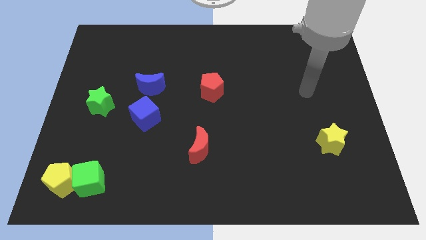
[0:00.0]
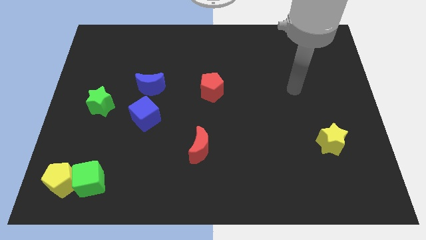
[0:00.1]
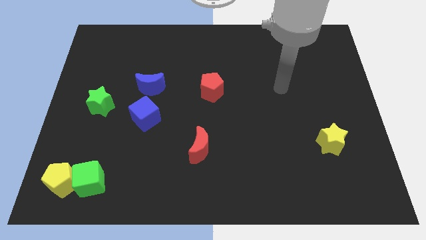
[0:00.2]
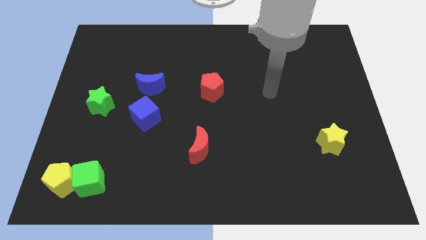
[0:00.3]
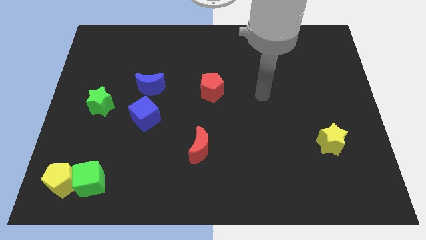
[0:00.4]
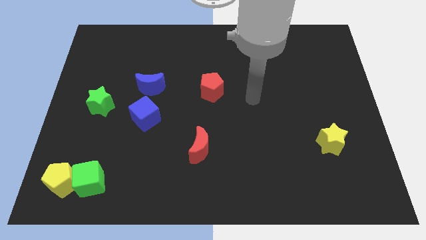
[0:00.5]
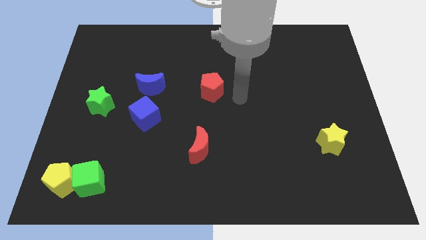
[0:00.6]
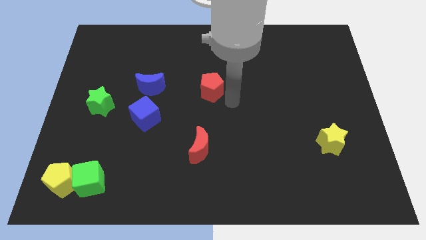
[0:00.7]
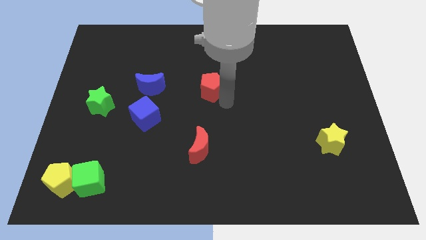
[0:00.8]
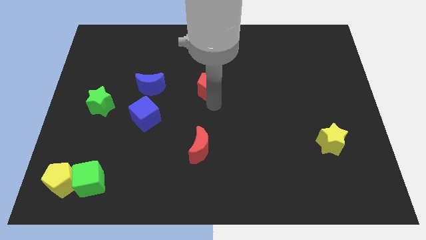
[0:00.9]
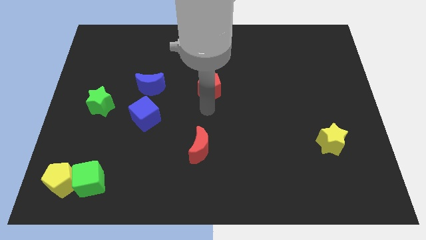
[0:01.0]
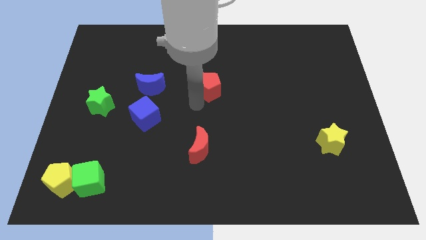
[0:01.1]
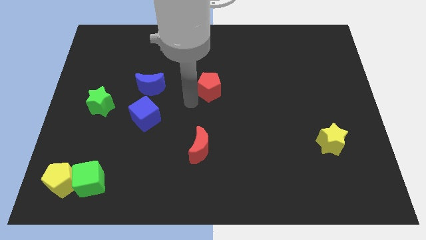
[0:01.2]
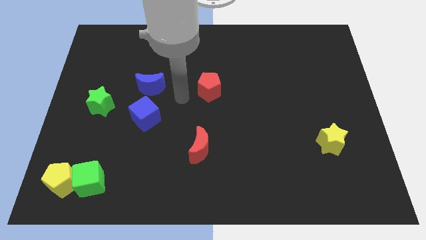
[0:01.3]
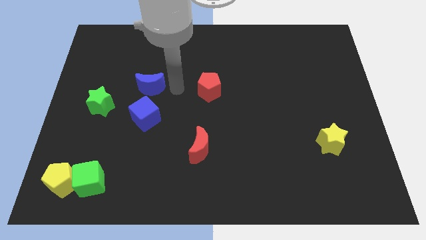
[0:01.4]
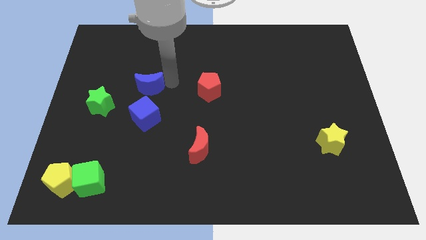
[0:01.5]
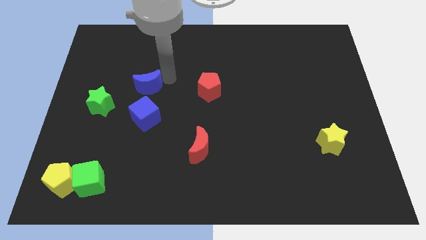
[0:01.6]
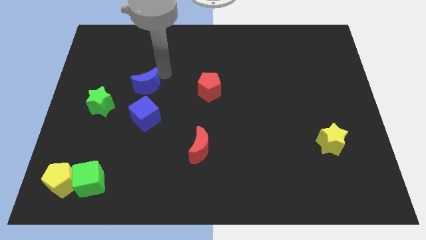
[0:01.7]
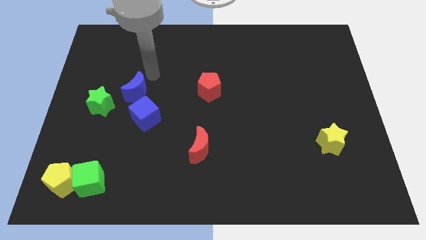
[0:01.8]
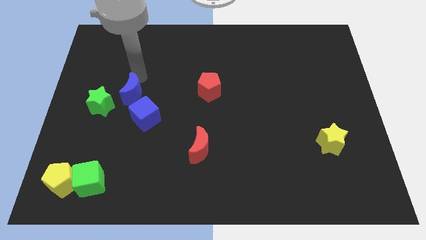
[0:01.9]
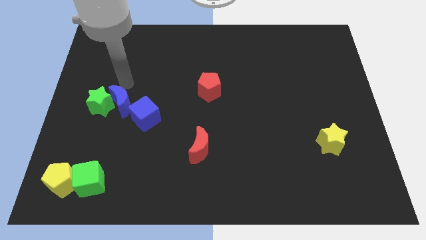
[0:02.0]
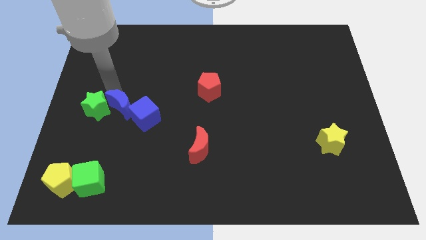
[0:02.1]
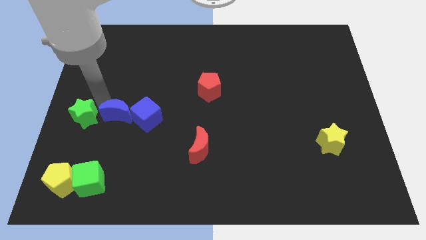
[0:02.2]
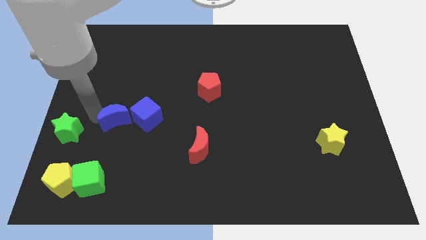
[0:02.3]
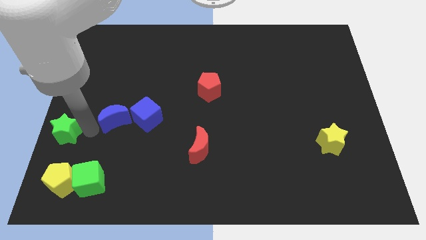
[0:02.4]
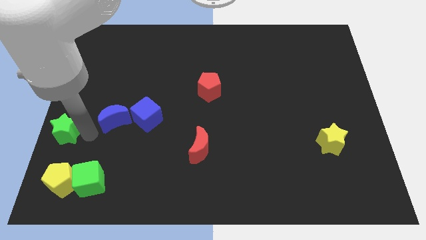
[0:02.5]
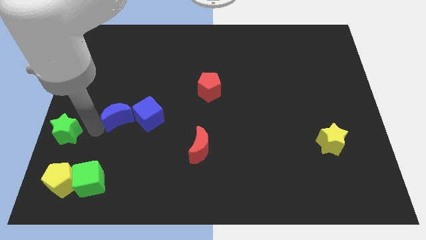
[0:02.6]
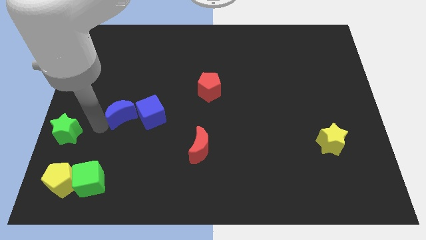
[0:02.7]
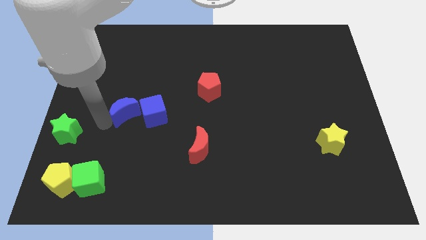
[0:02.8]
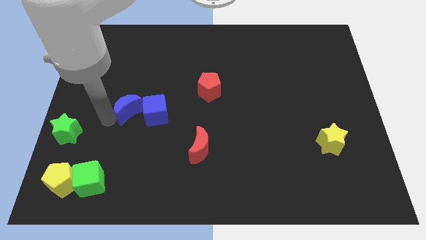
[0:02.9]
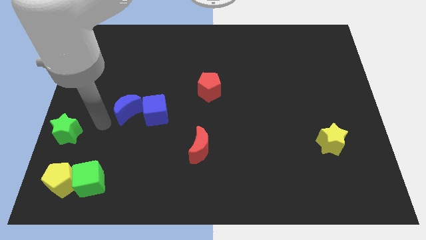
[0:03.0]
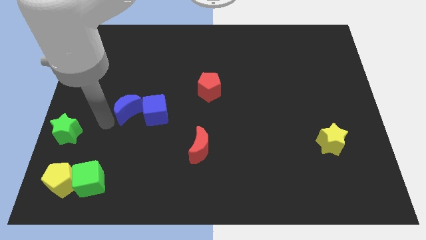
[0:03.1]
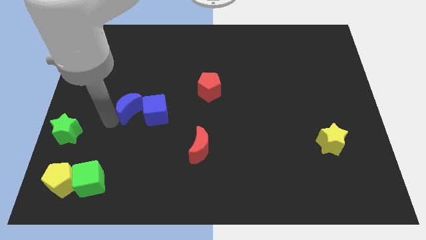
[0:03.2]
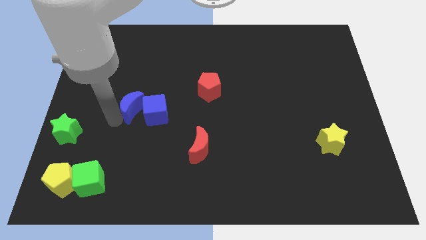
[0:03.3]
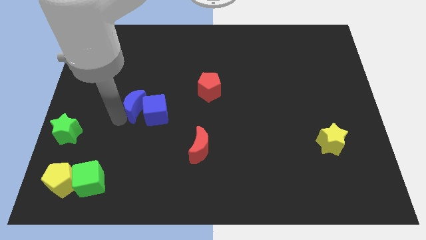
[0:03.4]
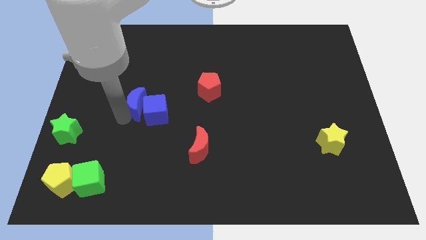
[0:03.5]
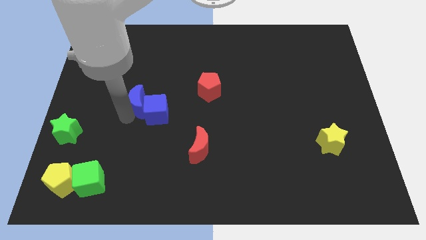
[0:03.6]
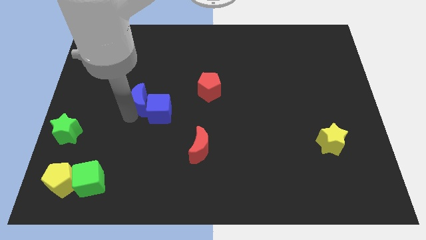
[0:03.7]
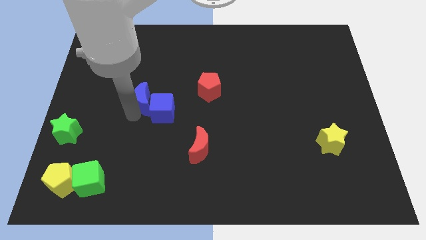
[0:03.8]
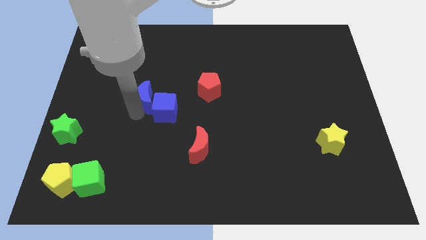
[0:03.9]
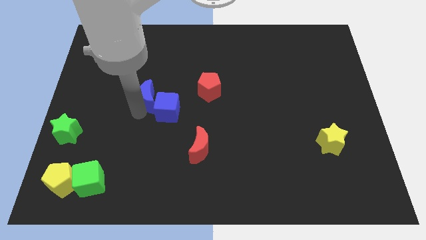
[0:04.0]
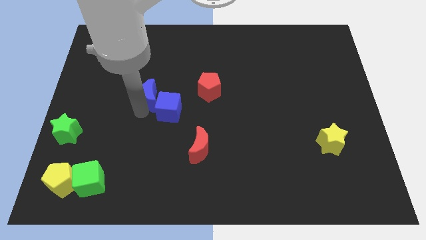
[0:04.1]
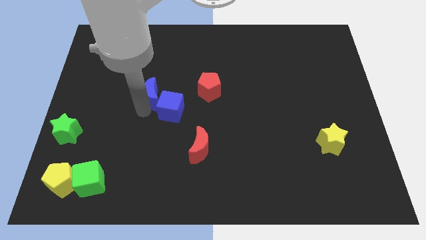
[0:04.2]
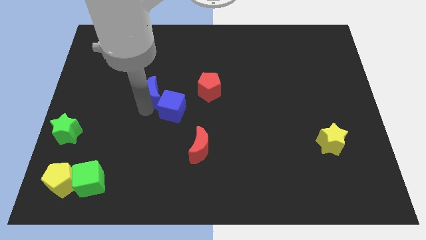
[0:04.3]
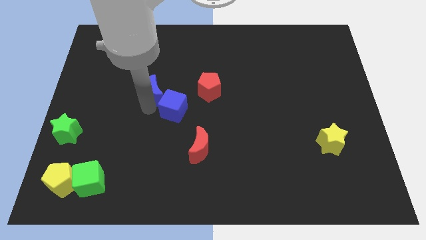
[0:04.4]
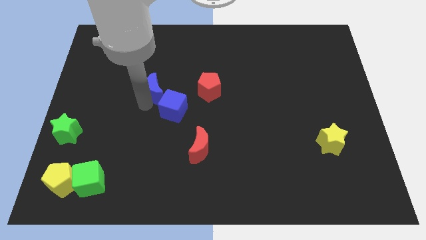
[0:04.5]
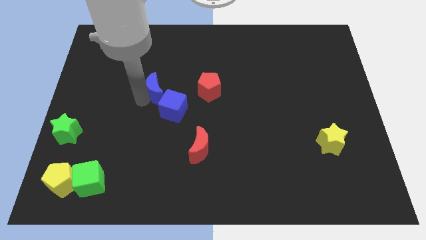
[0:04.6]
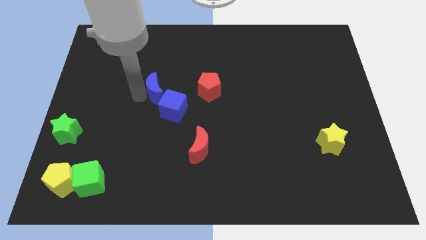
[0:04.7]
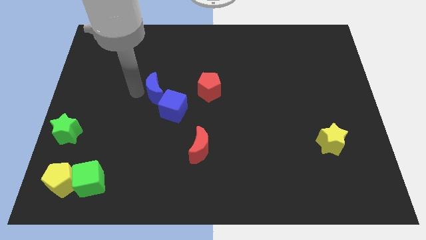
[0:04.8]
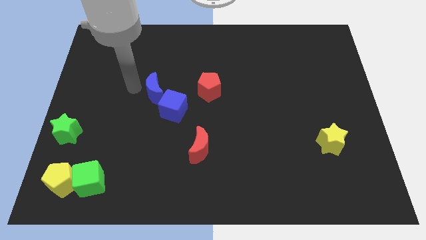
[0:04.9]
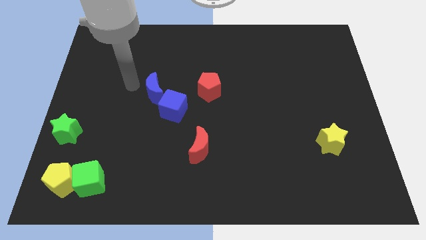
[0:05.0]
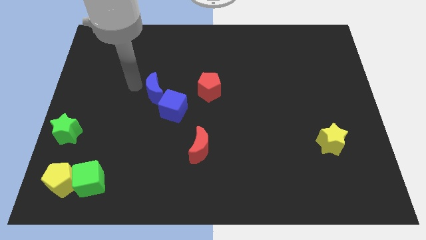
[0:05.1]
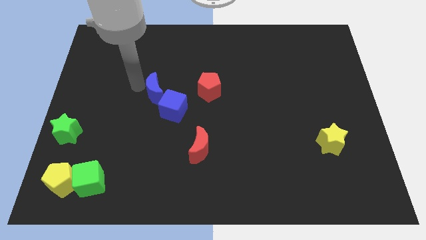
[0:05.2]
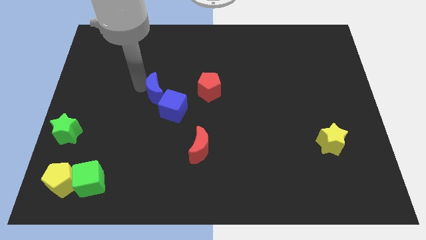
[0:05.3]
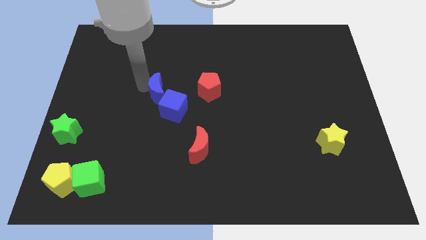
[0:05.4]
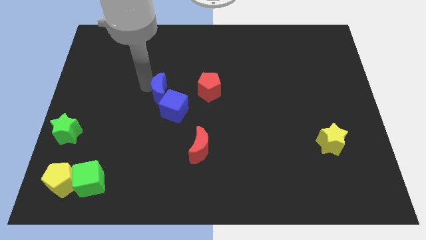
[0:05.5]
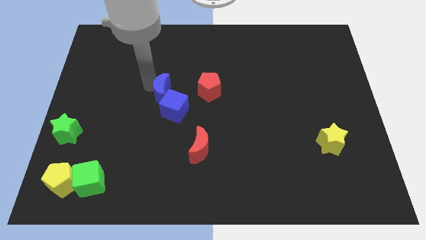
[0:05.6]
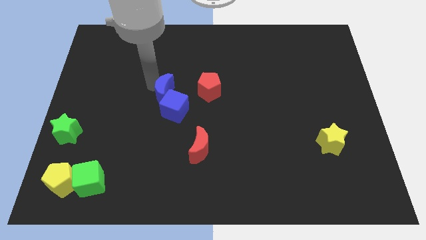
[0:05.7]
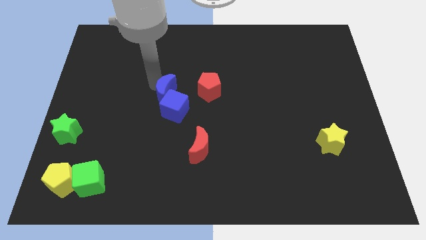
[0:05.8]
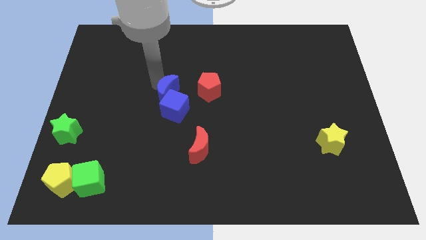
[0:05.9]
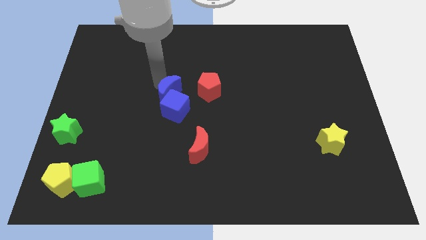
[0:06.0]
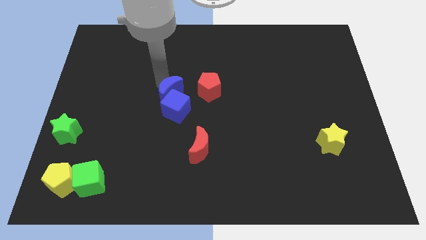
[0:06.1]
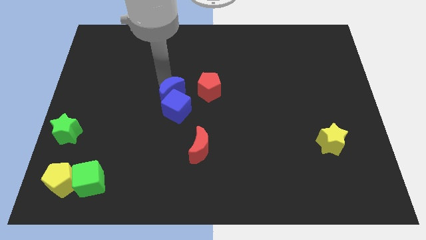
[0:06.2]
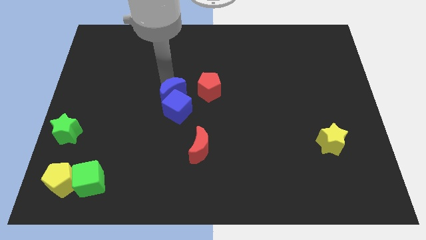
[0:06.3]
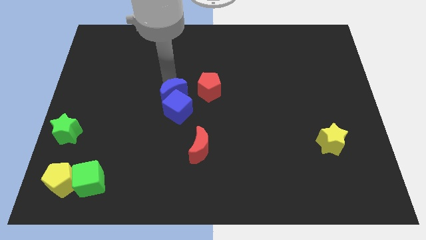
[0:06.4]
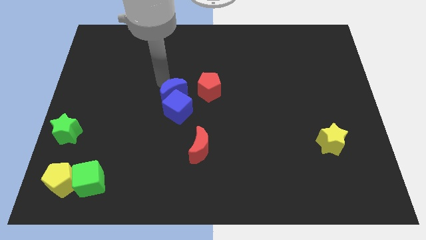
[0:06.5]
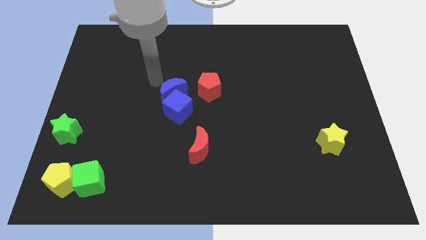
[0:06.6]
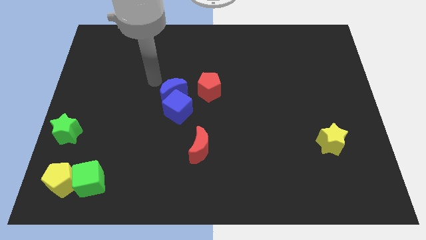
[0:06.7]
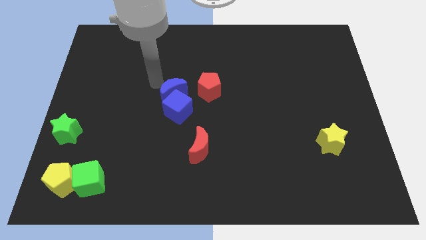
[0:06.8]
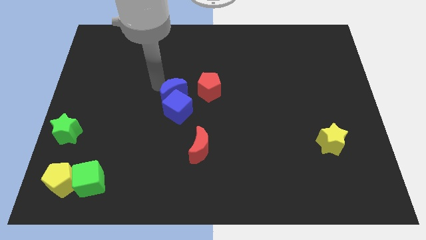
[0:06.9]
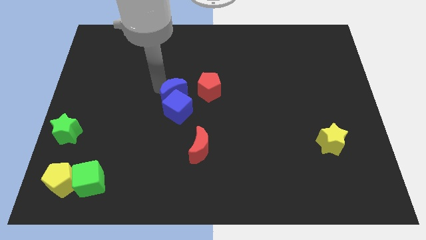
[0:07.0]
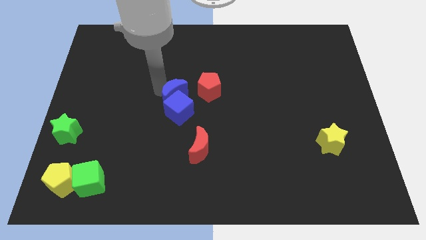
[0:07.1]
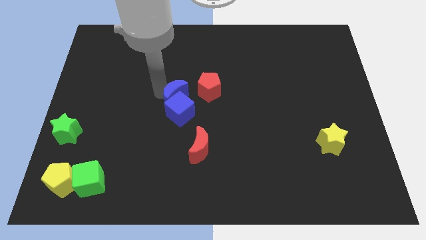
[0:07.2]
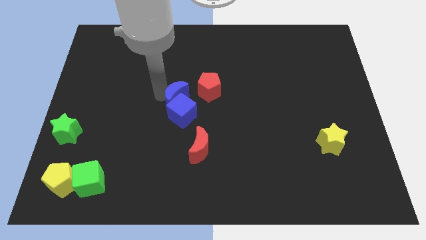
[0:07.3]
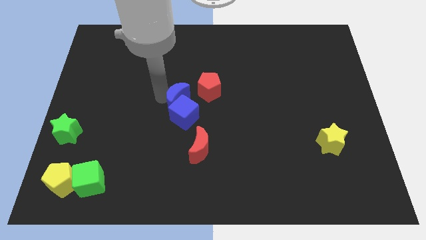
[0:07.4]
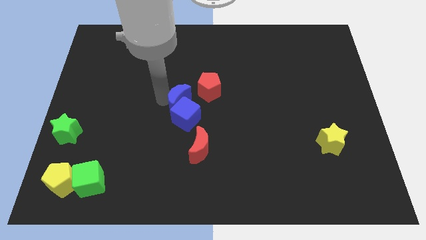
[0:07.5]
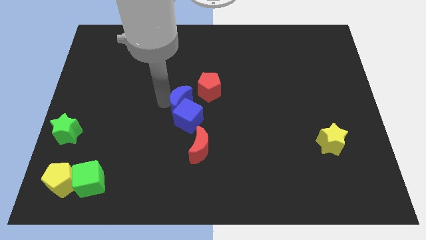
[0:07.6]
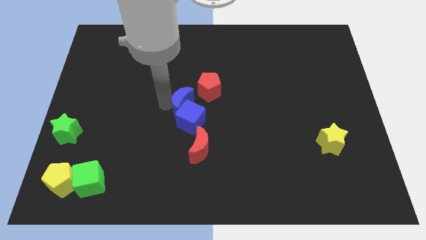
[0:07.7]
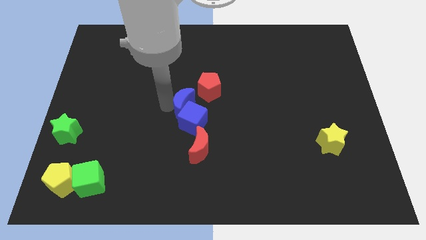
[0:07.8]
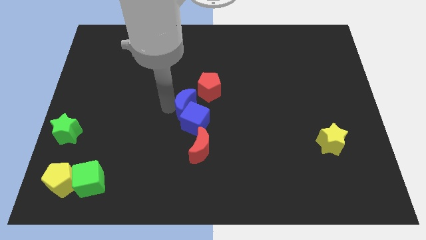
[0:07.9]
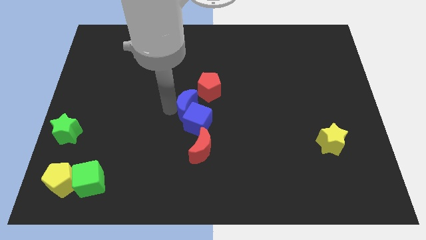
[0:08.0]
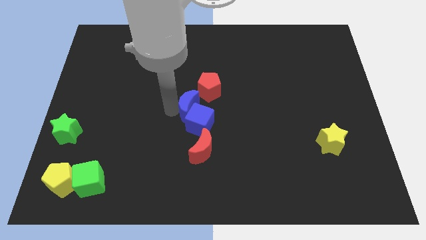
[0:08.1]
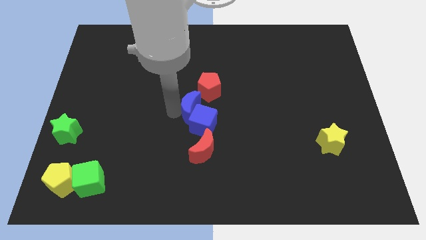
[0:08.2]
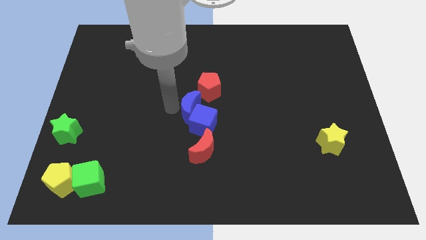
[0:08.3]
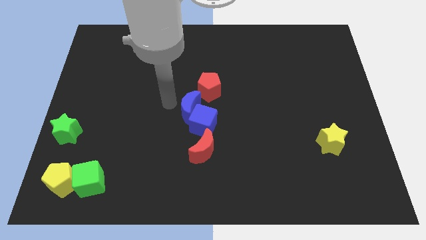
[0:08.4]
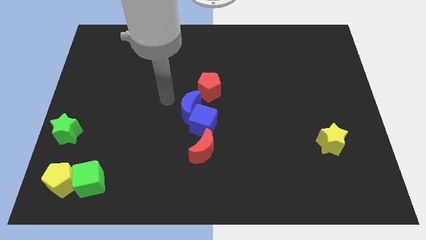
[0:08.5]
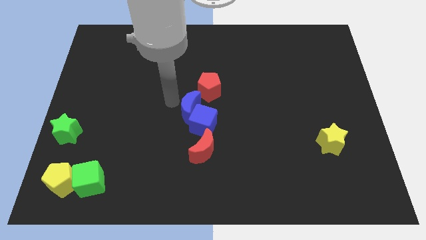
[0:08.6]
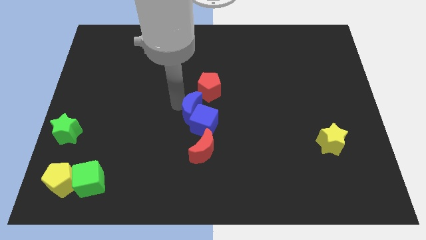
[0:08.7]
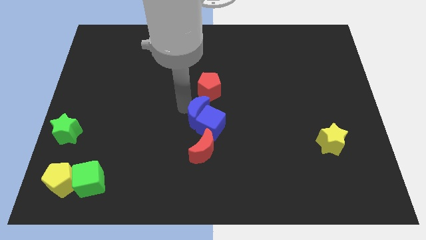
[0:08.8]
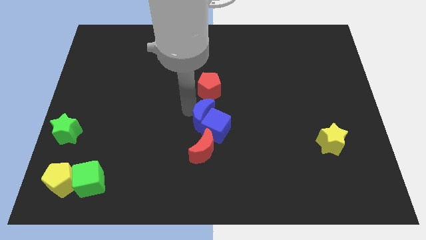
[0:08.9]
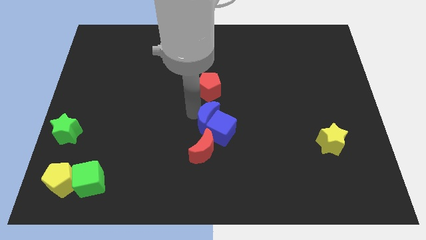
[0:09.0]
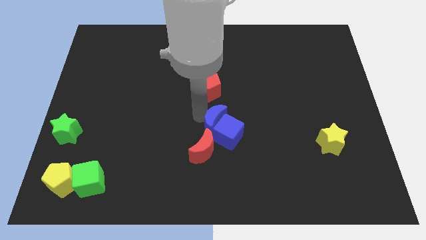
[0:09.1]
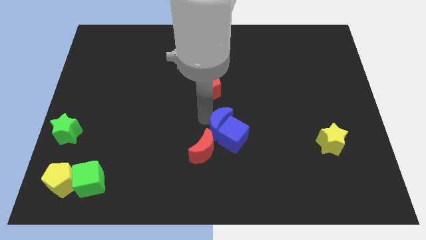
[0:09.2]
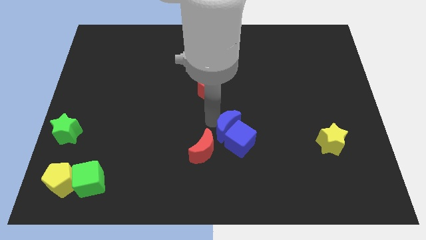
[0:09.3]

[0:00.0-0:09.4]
move the blue moon down and then right
